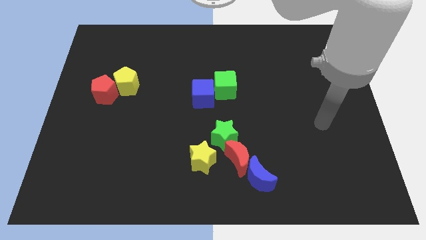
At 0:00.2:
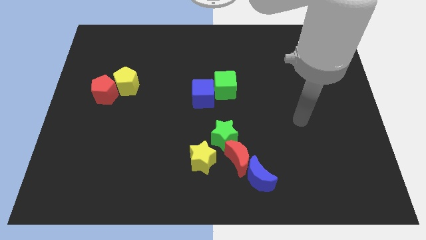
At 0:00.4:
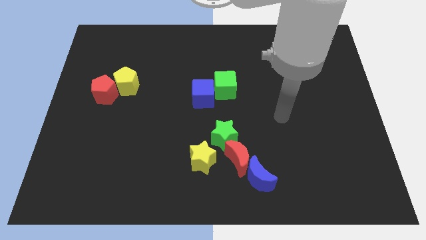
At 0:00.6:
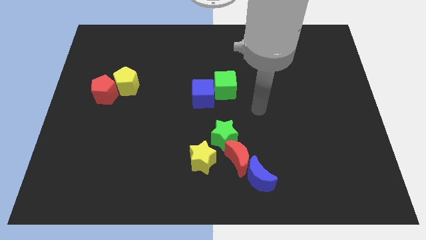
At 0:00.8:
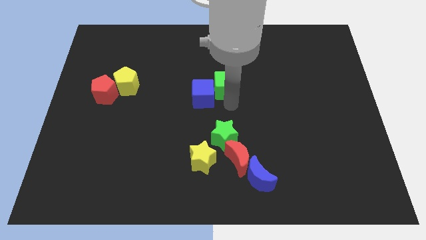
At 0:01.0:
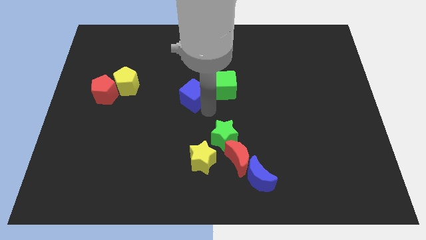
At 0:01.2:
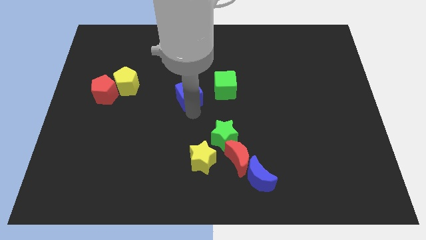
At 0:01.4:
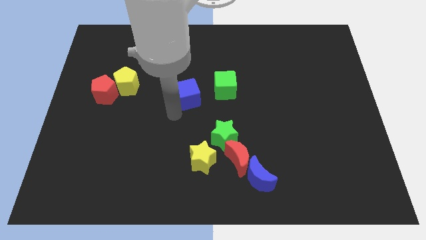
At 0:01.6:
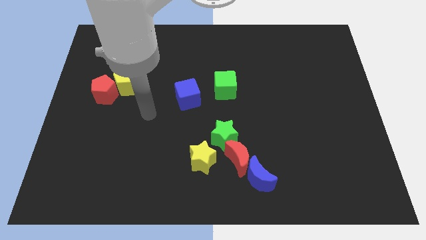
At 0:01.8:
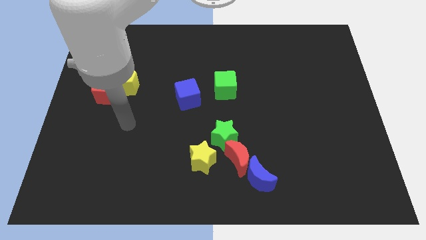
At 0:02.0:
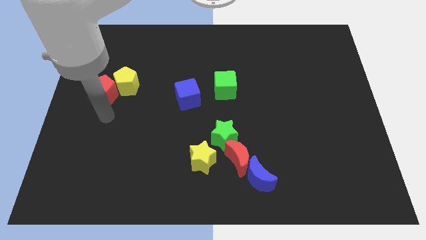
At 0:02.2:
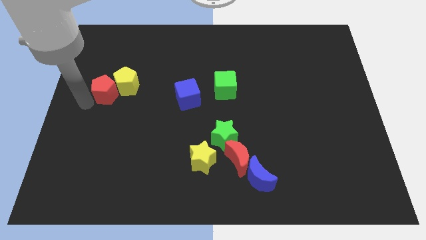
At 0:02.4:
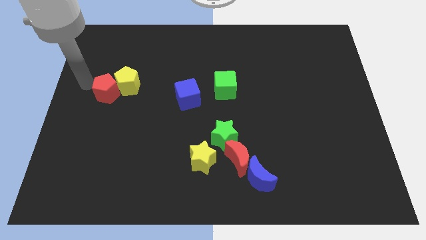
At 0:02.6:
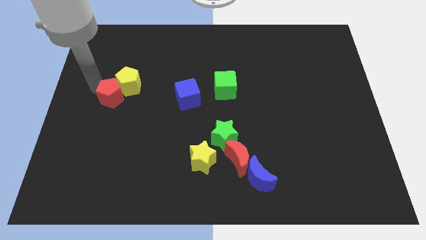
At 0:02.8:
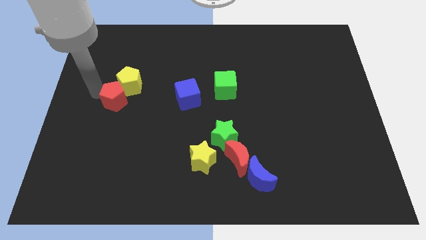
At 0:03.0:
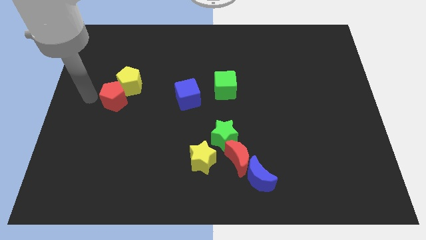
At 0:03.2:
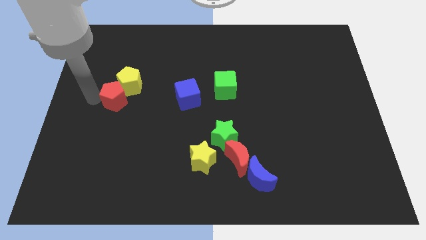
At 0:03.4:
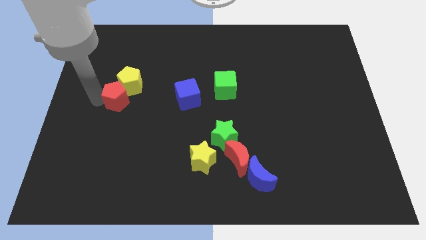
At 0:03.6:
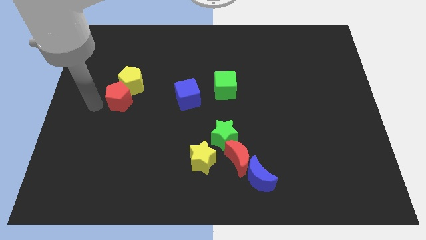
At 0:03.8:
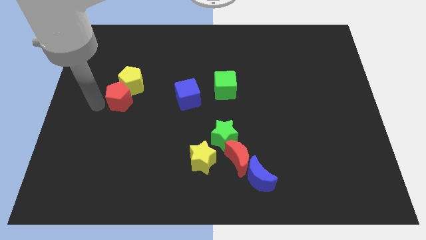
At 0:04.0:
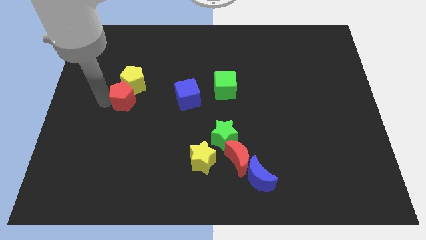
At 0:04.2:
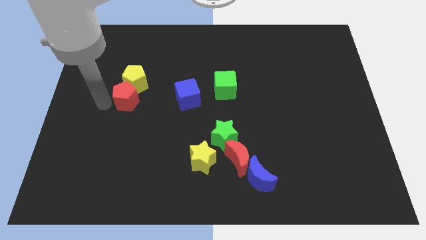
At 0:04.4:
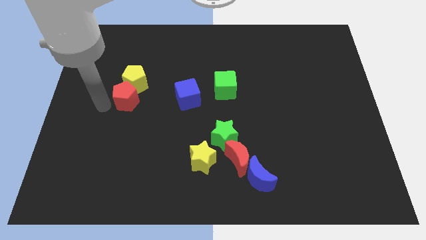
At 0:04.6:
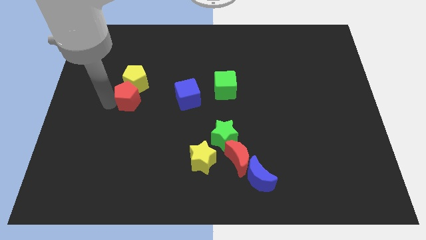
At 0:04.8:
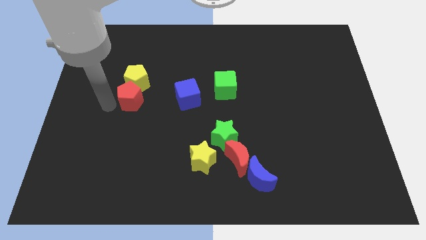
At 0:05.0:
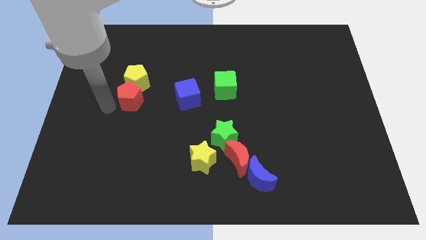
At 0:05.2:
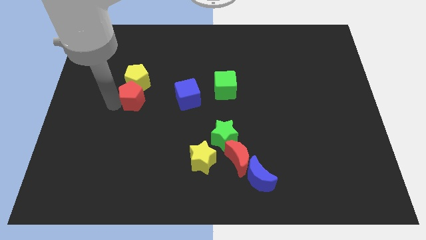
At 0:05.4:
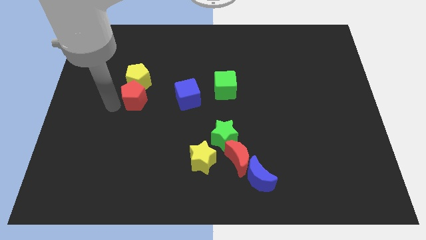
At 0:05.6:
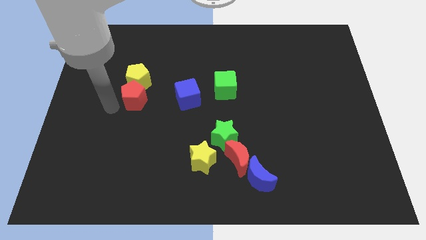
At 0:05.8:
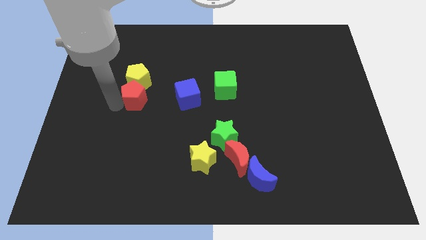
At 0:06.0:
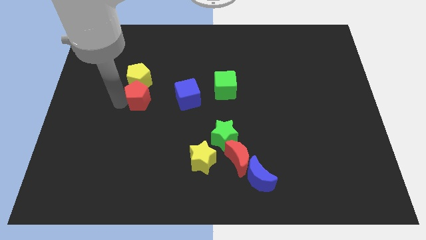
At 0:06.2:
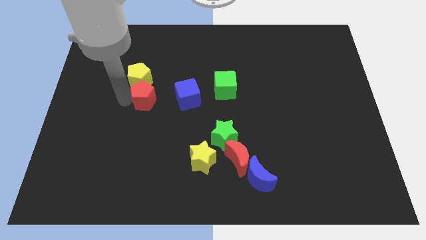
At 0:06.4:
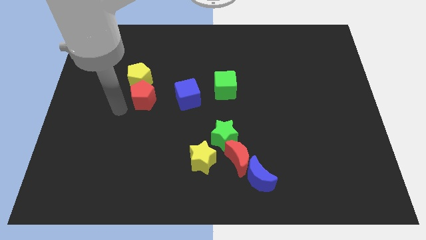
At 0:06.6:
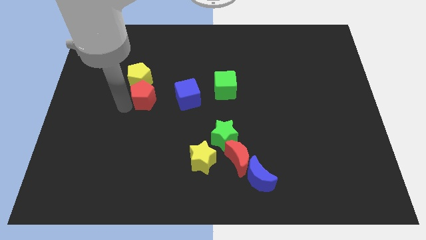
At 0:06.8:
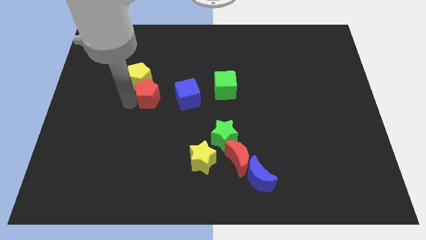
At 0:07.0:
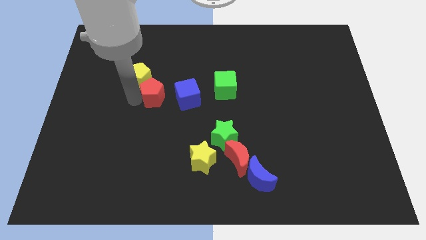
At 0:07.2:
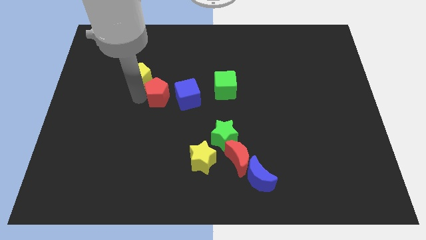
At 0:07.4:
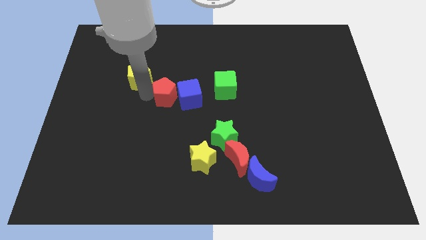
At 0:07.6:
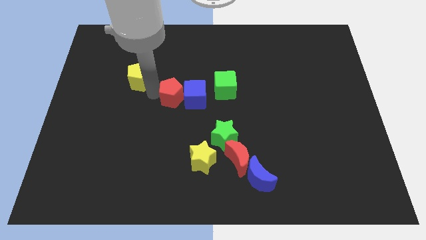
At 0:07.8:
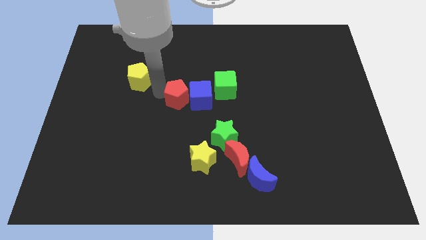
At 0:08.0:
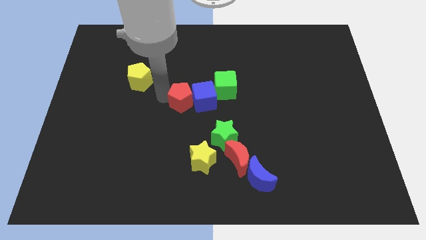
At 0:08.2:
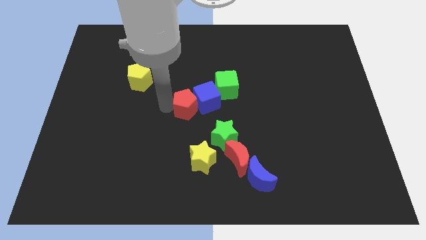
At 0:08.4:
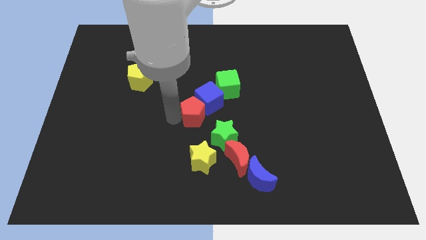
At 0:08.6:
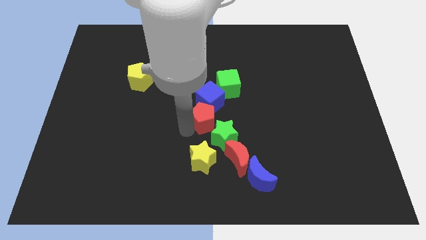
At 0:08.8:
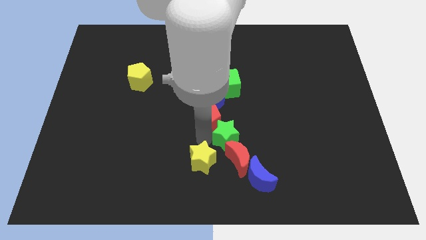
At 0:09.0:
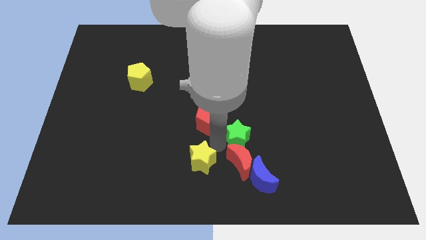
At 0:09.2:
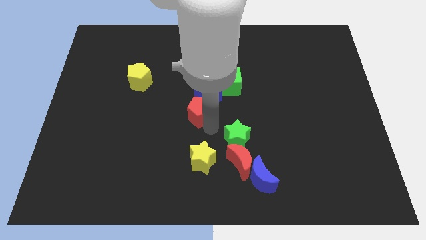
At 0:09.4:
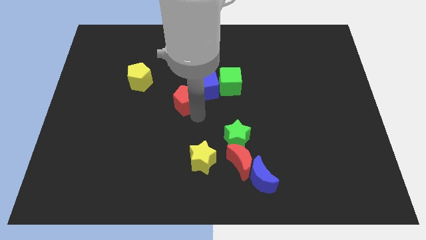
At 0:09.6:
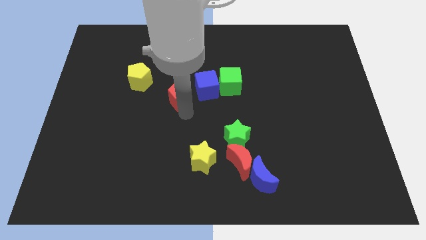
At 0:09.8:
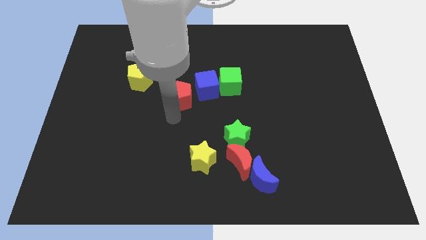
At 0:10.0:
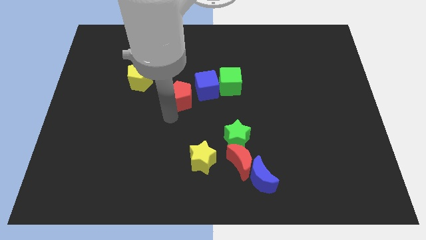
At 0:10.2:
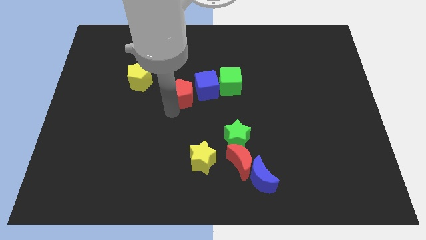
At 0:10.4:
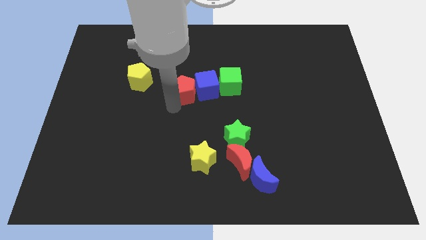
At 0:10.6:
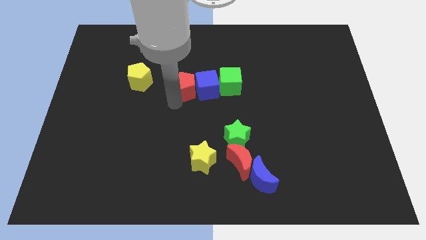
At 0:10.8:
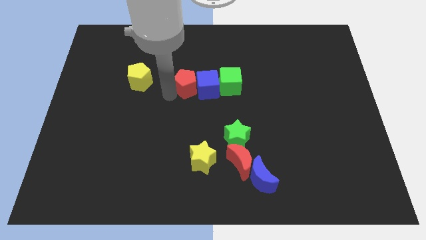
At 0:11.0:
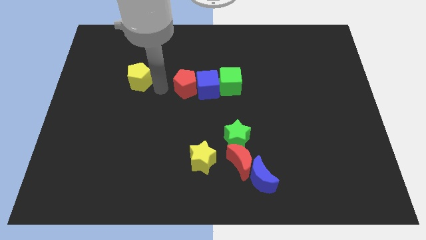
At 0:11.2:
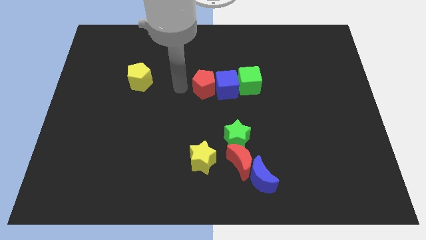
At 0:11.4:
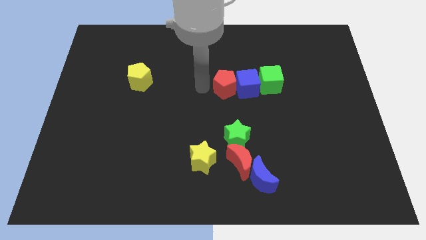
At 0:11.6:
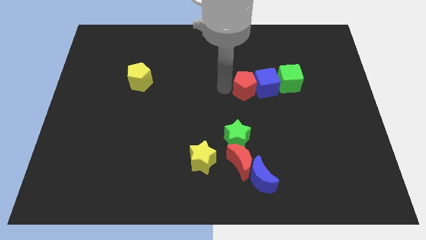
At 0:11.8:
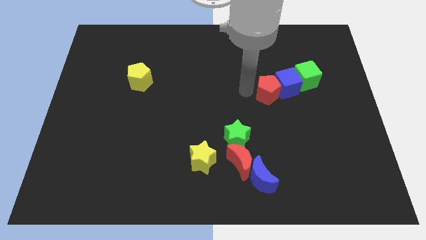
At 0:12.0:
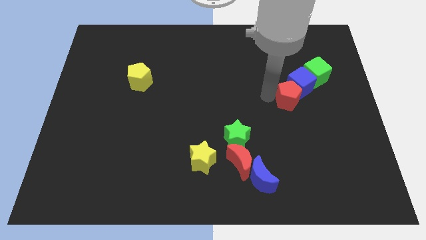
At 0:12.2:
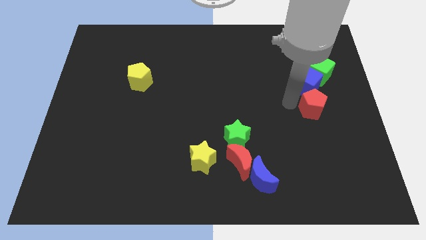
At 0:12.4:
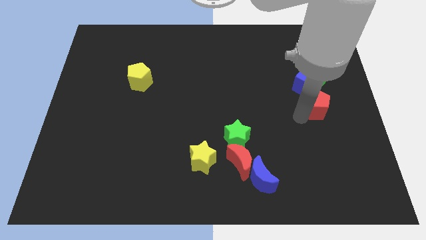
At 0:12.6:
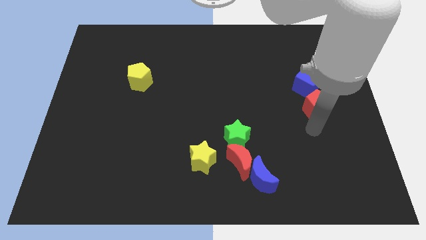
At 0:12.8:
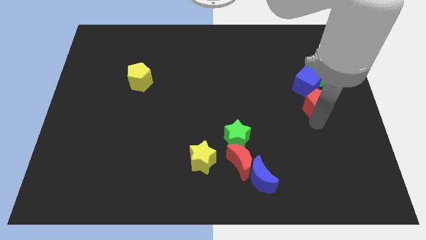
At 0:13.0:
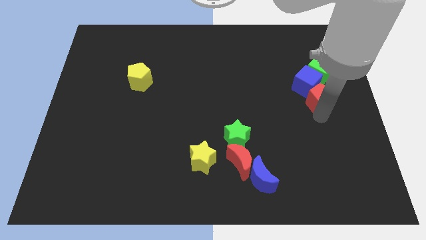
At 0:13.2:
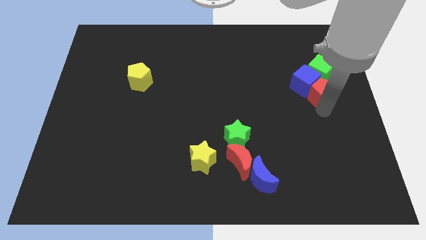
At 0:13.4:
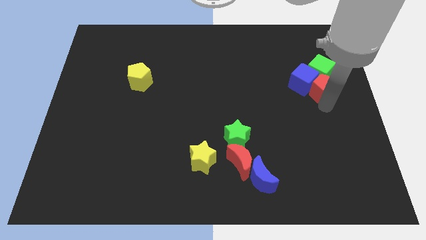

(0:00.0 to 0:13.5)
push the red pentagon to the green cube

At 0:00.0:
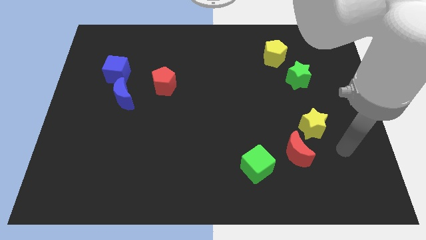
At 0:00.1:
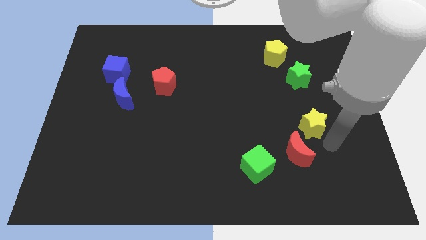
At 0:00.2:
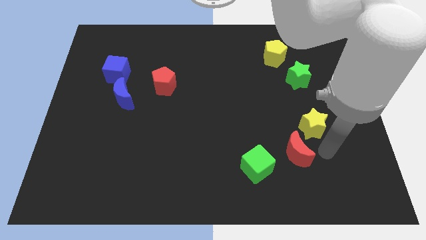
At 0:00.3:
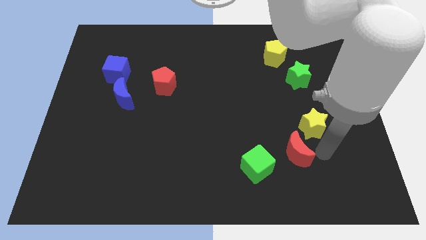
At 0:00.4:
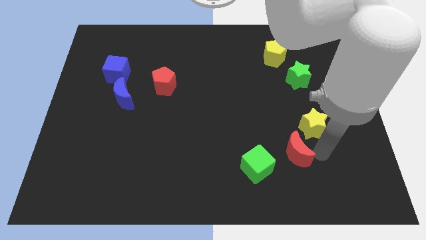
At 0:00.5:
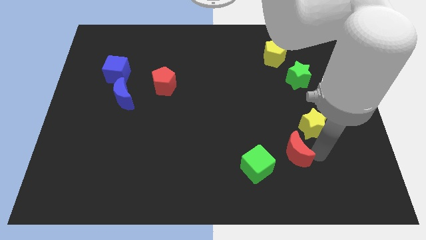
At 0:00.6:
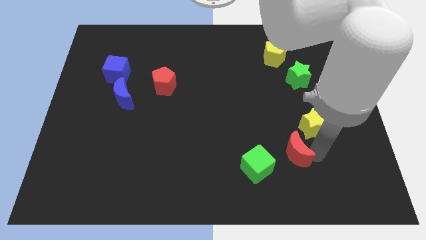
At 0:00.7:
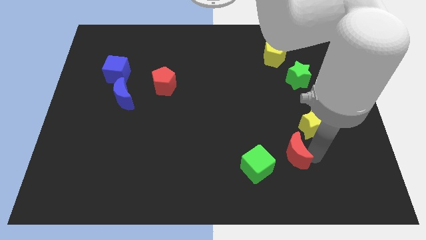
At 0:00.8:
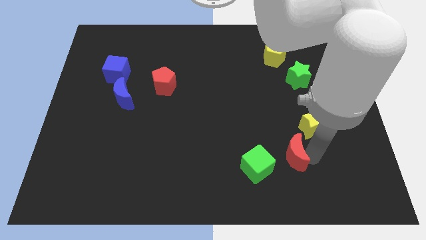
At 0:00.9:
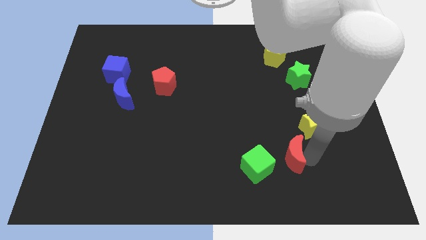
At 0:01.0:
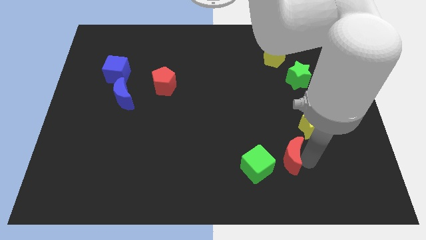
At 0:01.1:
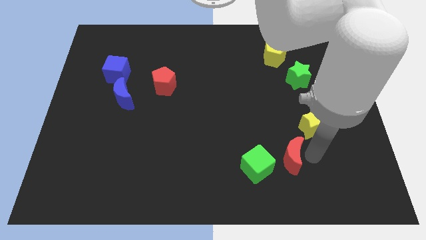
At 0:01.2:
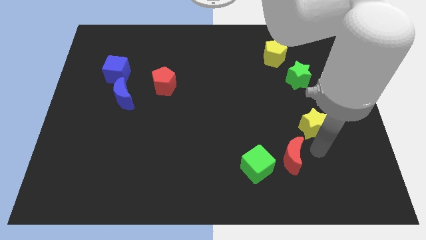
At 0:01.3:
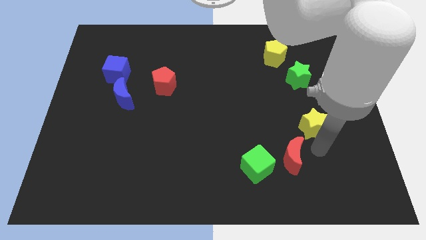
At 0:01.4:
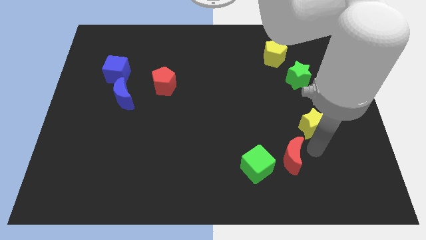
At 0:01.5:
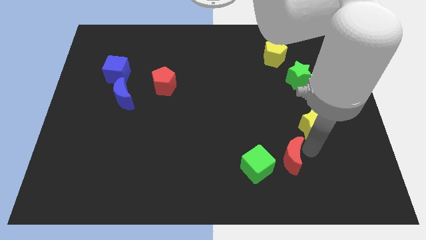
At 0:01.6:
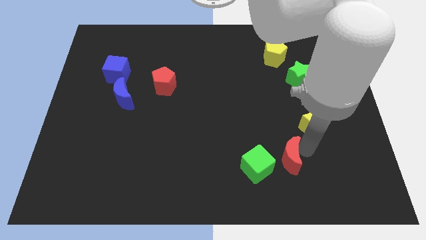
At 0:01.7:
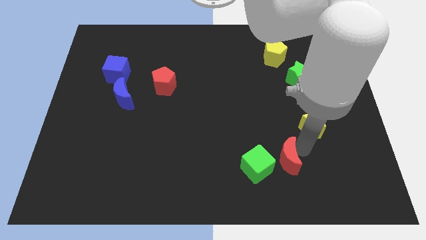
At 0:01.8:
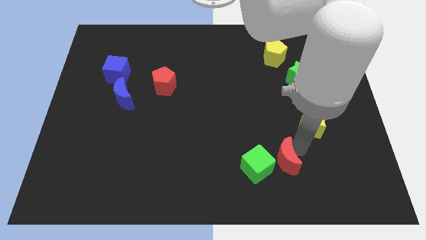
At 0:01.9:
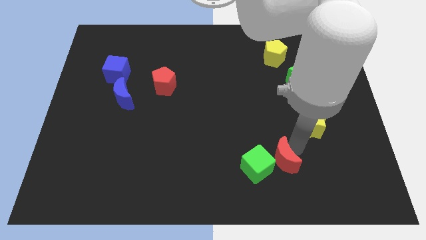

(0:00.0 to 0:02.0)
push the red moon close to the green cube
